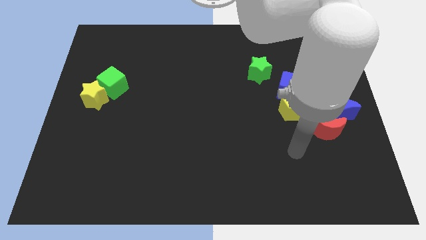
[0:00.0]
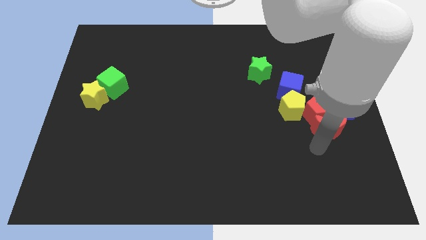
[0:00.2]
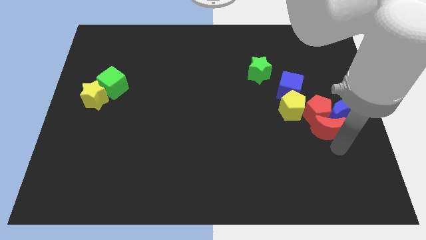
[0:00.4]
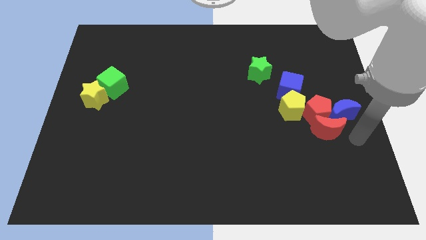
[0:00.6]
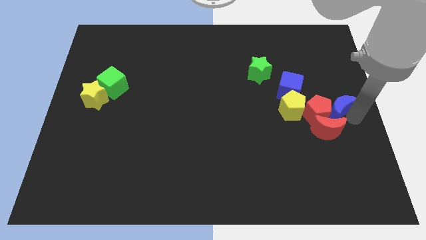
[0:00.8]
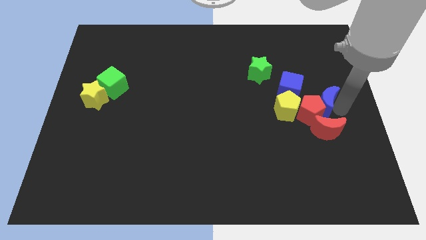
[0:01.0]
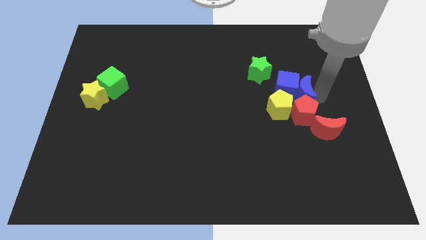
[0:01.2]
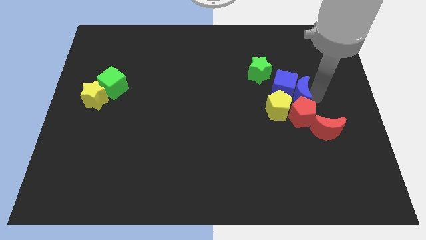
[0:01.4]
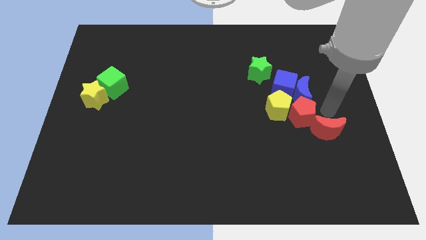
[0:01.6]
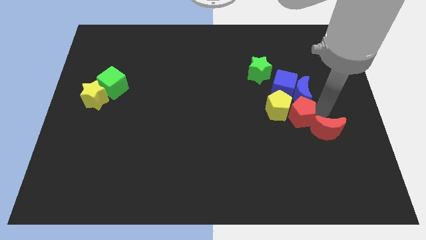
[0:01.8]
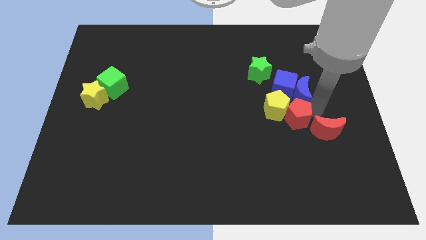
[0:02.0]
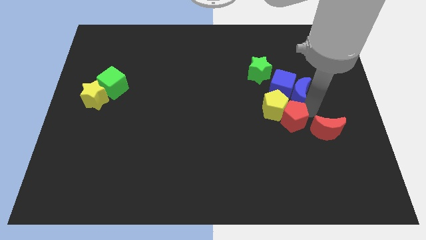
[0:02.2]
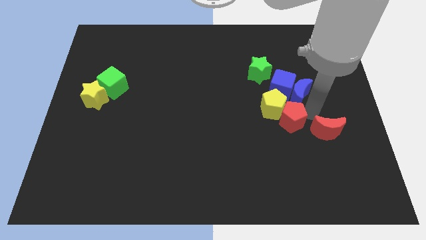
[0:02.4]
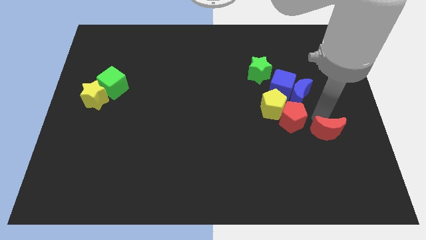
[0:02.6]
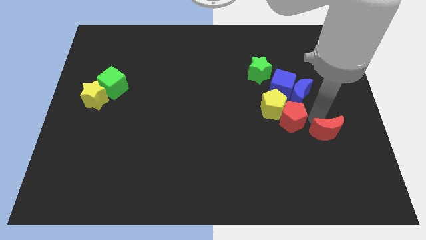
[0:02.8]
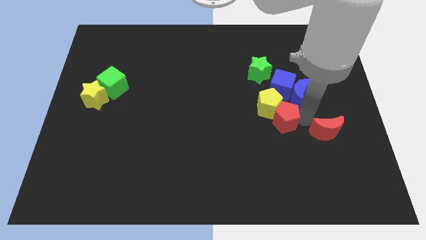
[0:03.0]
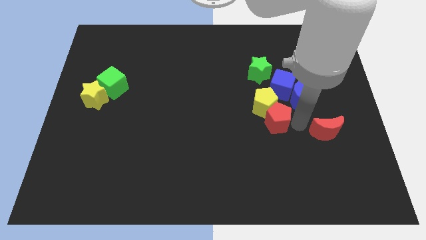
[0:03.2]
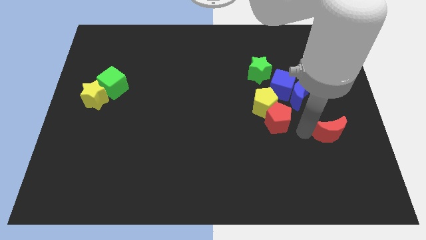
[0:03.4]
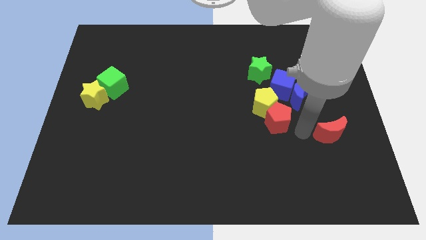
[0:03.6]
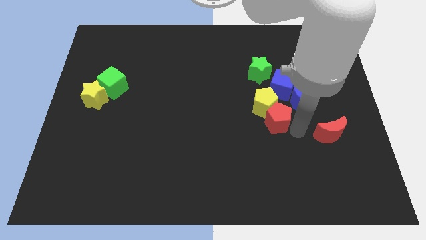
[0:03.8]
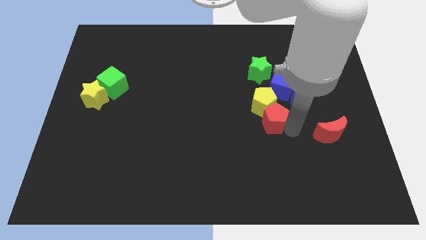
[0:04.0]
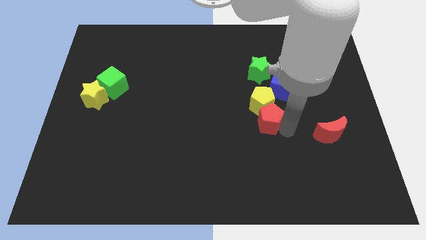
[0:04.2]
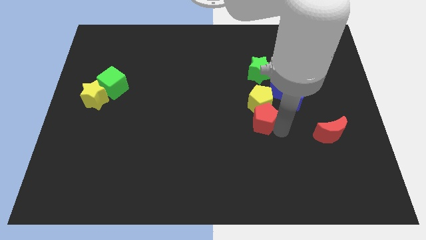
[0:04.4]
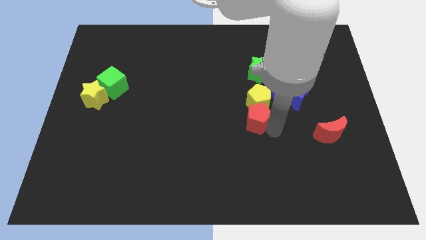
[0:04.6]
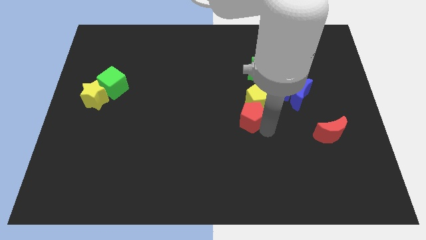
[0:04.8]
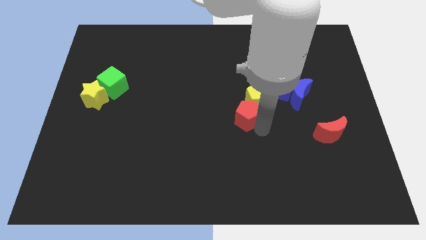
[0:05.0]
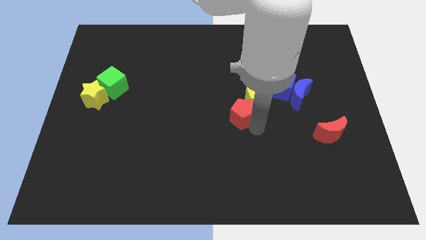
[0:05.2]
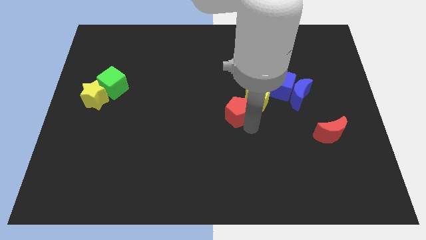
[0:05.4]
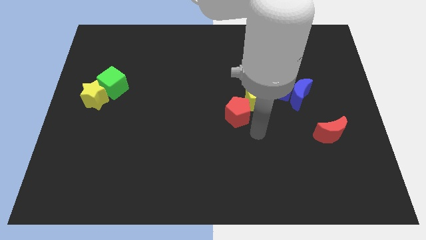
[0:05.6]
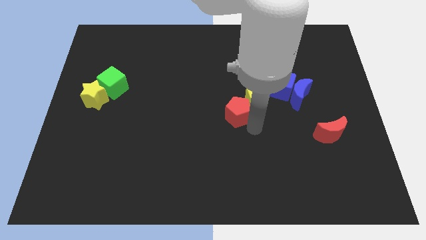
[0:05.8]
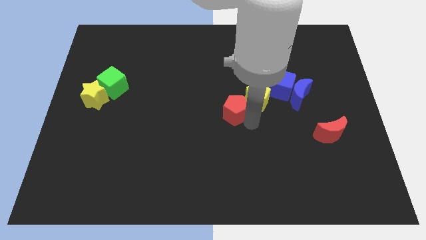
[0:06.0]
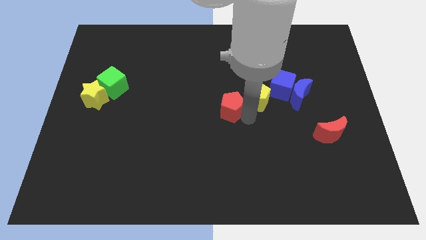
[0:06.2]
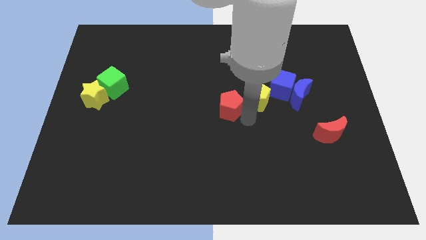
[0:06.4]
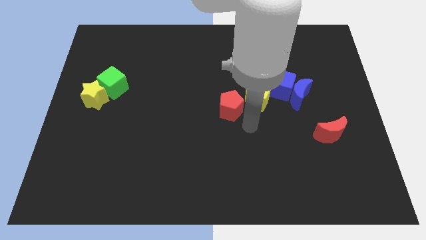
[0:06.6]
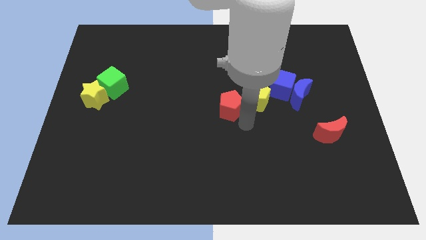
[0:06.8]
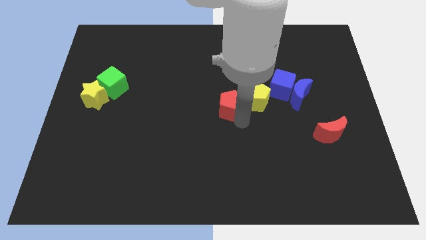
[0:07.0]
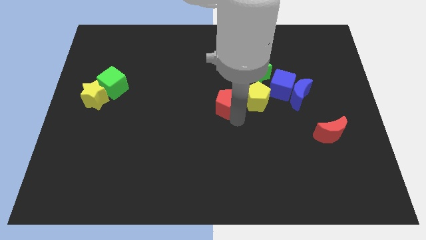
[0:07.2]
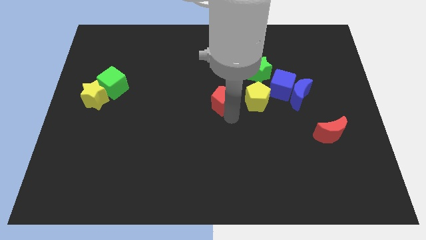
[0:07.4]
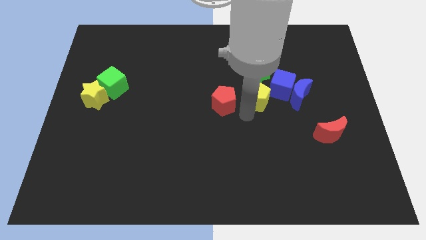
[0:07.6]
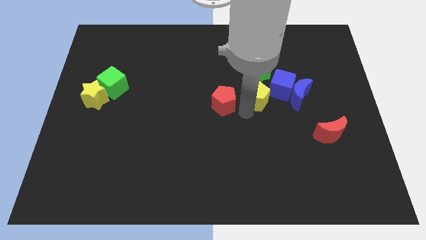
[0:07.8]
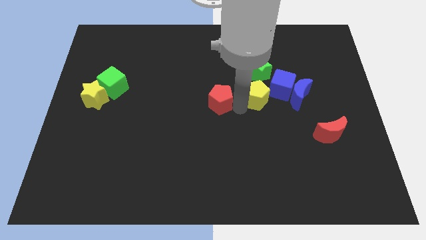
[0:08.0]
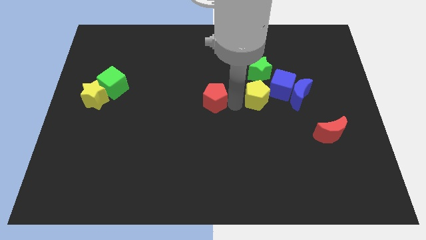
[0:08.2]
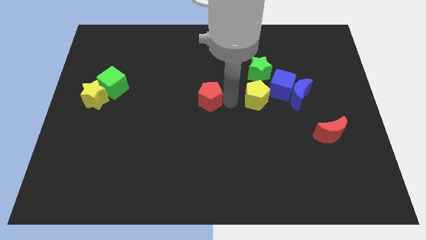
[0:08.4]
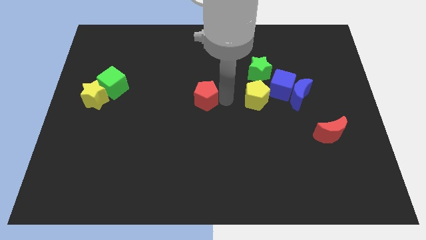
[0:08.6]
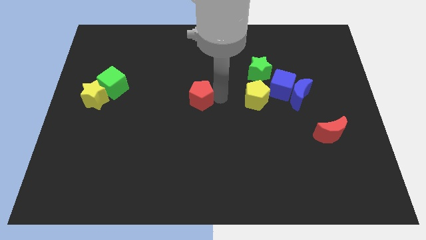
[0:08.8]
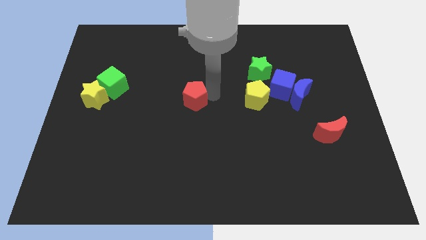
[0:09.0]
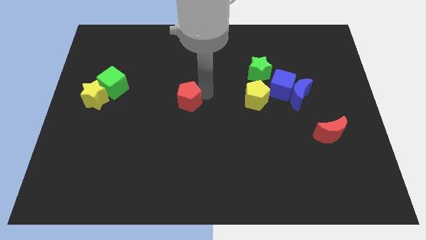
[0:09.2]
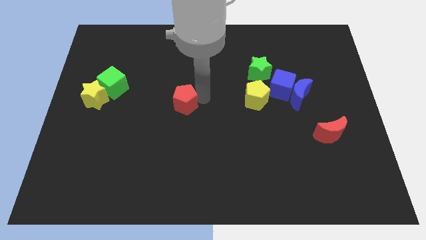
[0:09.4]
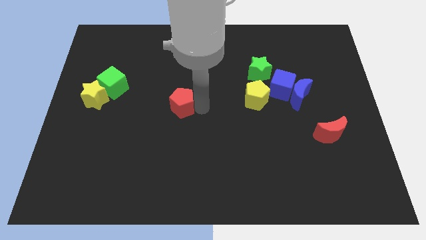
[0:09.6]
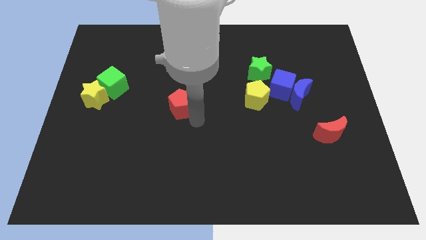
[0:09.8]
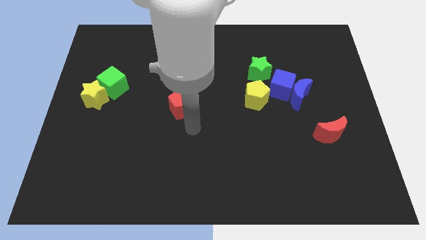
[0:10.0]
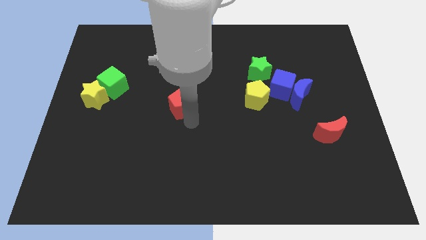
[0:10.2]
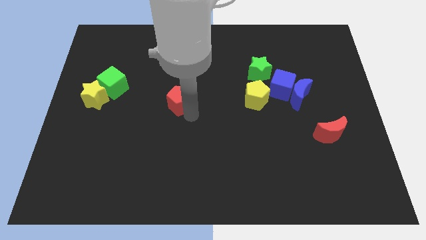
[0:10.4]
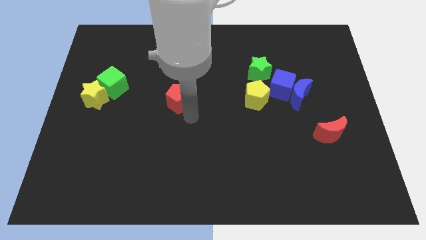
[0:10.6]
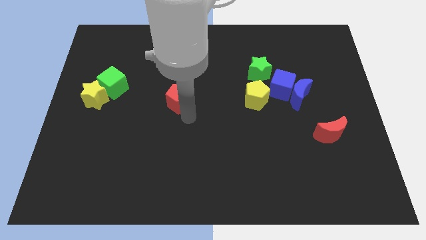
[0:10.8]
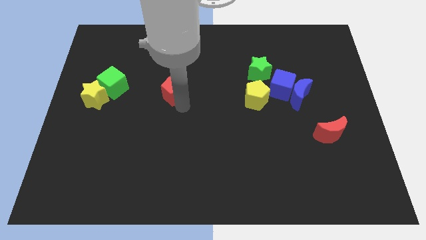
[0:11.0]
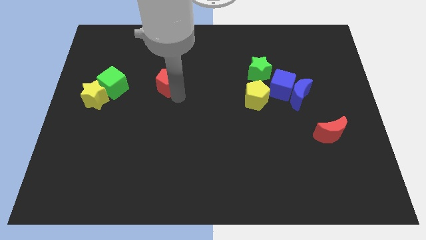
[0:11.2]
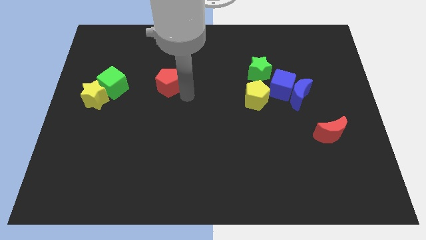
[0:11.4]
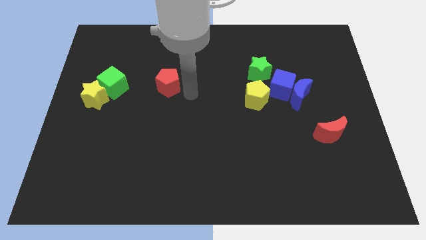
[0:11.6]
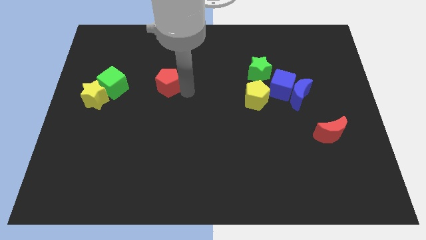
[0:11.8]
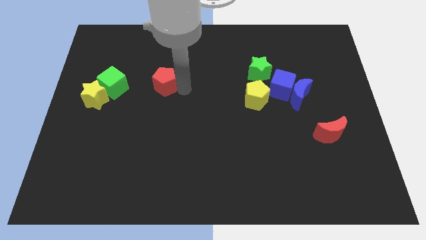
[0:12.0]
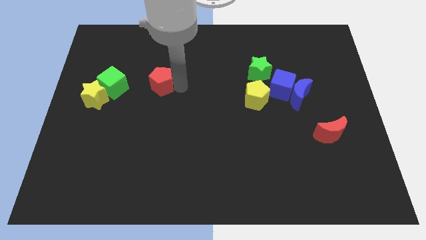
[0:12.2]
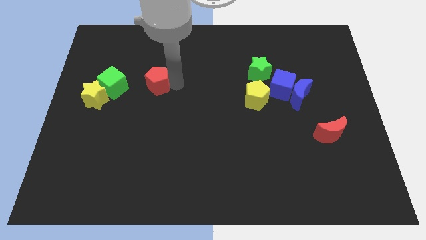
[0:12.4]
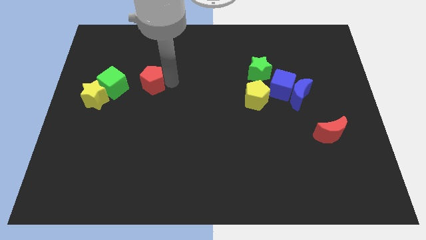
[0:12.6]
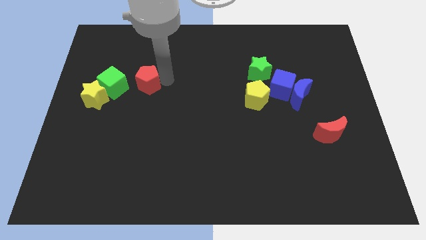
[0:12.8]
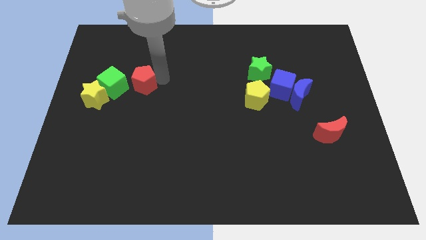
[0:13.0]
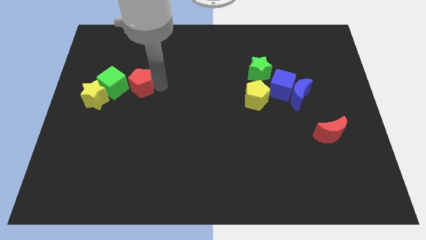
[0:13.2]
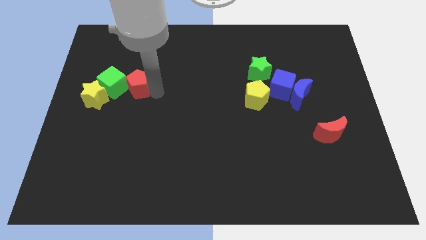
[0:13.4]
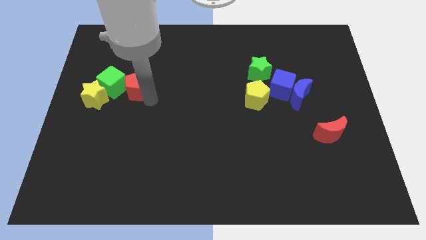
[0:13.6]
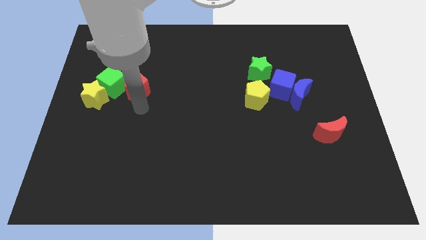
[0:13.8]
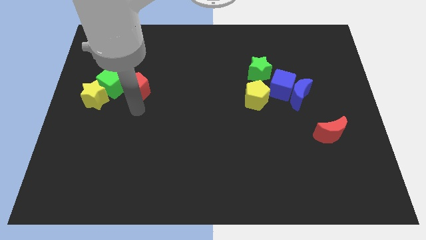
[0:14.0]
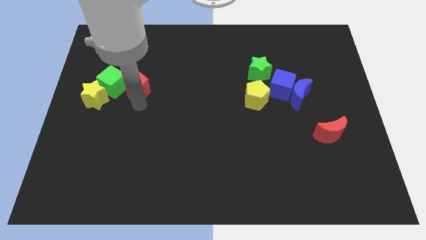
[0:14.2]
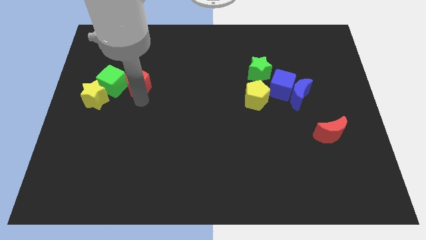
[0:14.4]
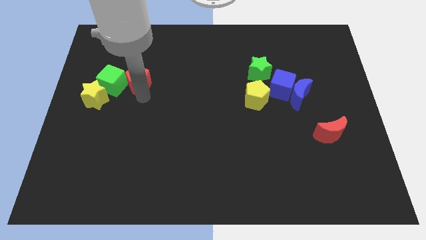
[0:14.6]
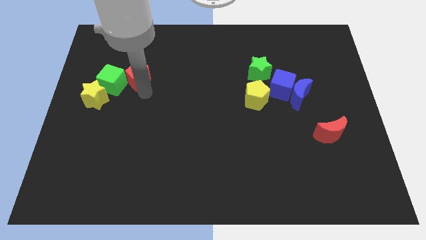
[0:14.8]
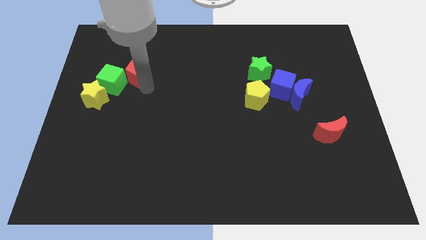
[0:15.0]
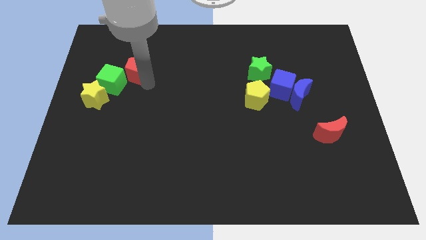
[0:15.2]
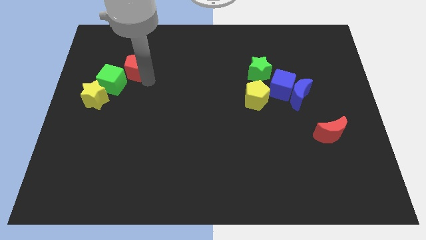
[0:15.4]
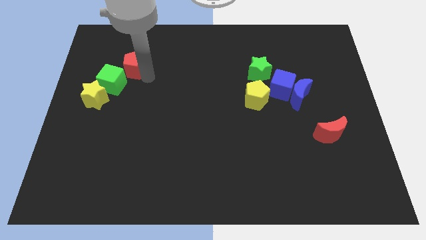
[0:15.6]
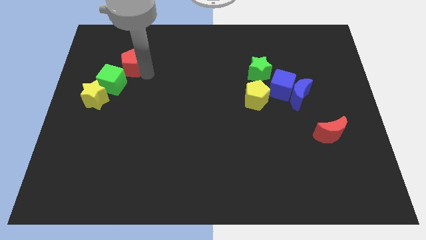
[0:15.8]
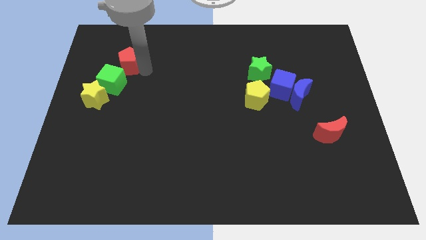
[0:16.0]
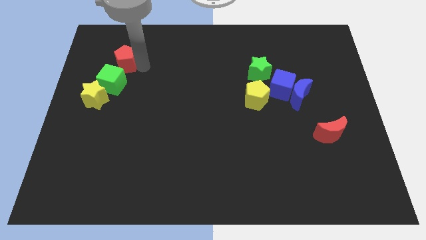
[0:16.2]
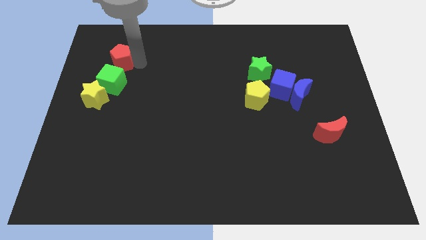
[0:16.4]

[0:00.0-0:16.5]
slide the red pentagon to the top side of the yellow star
